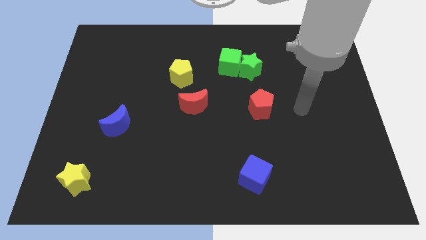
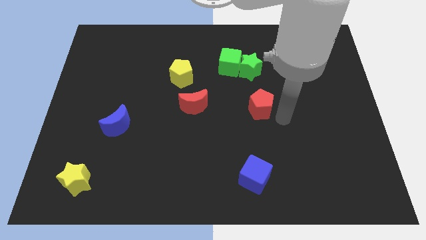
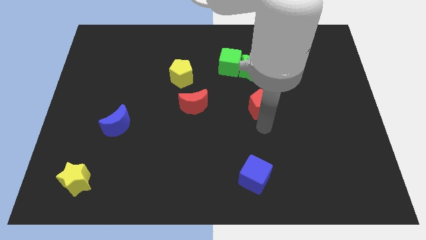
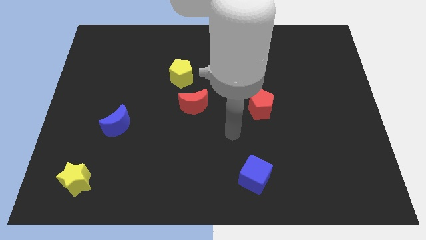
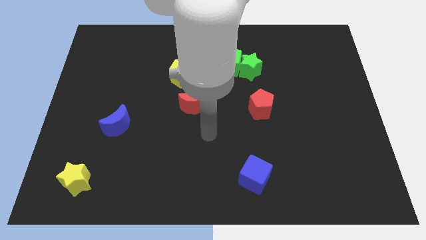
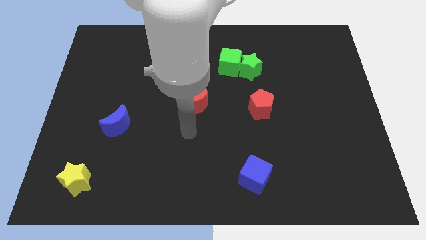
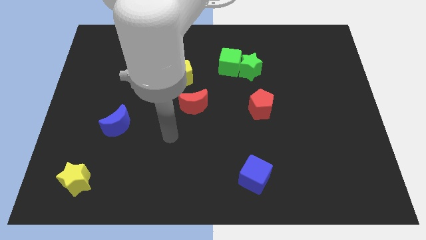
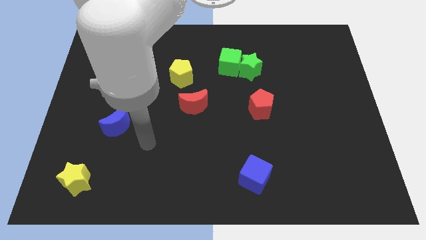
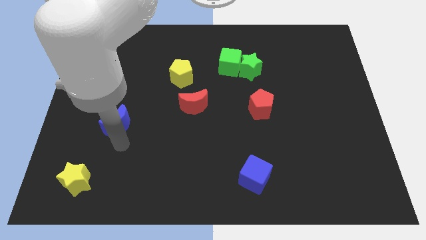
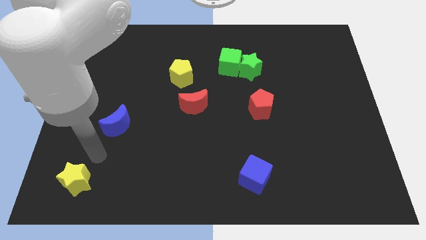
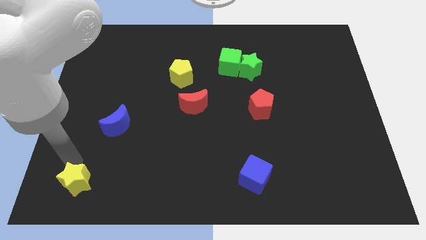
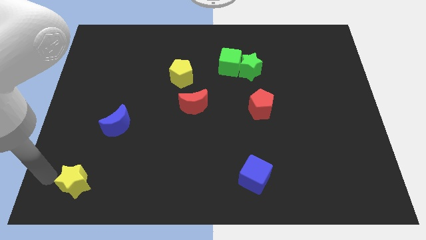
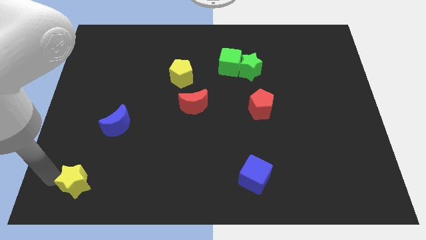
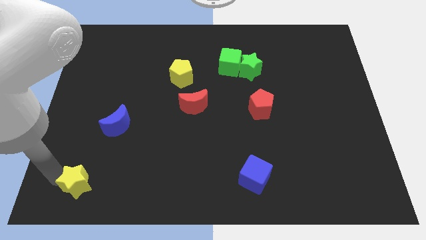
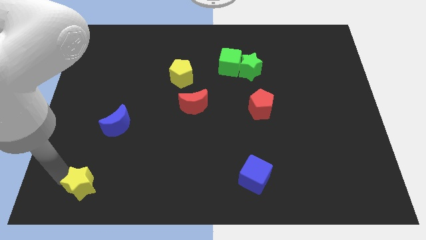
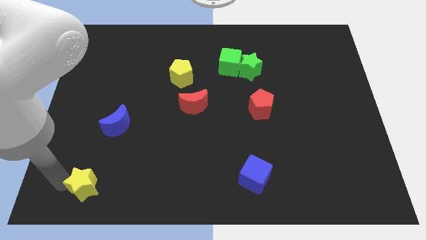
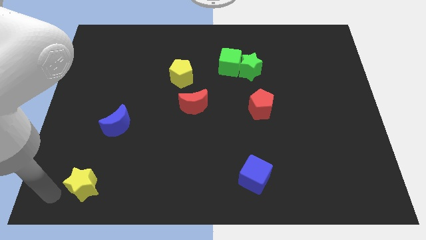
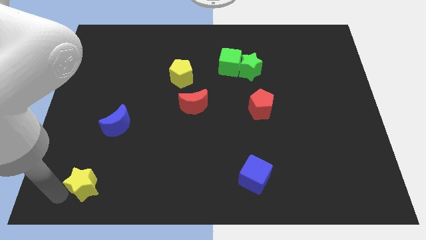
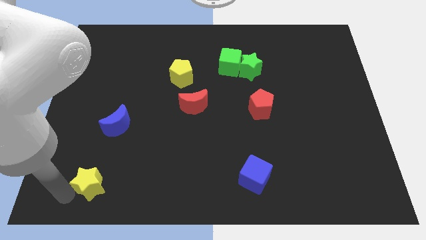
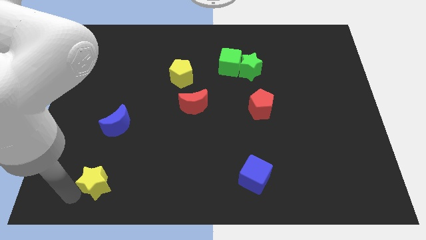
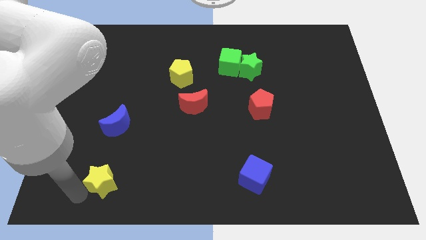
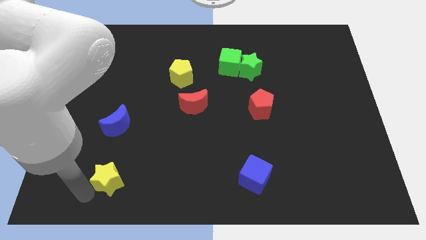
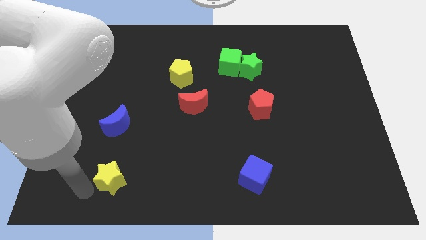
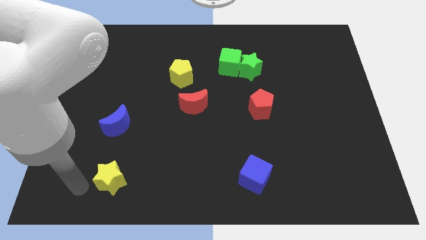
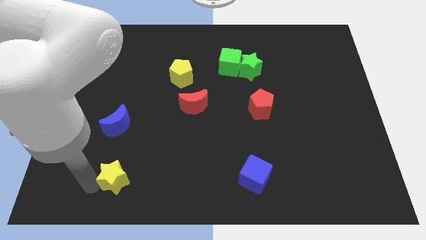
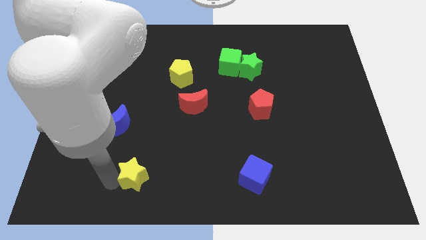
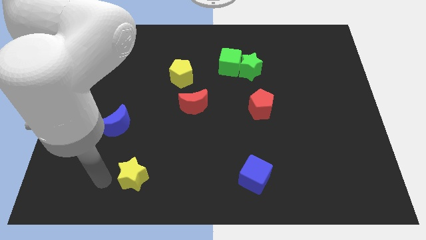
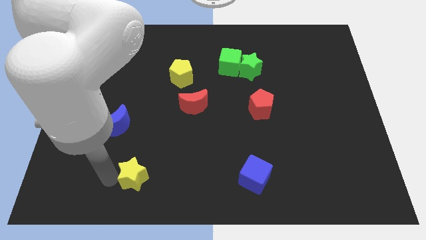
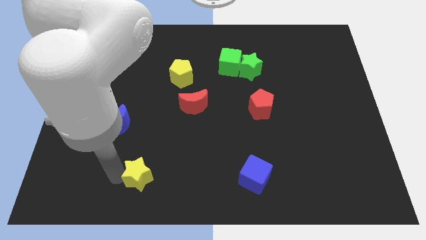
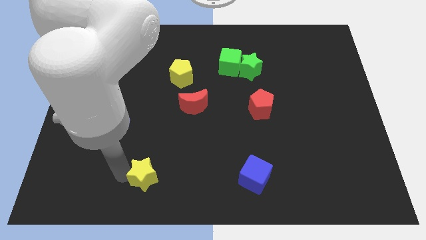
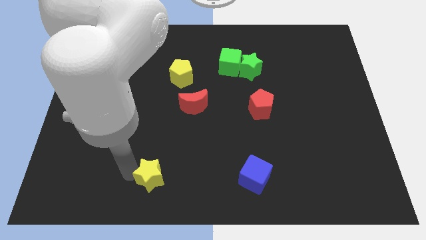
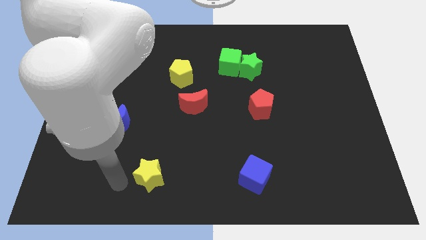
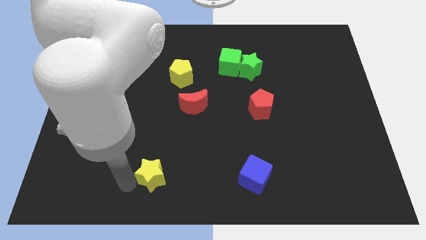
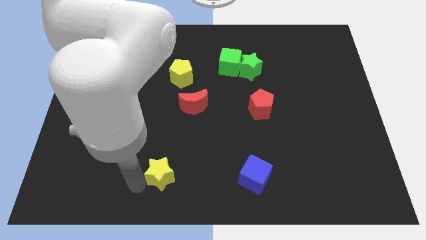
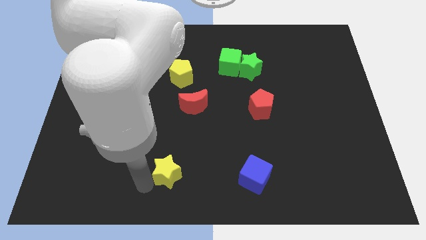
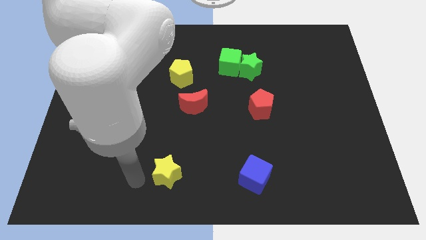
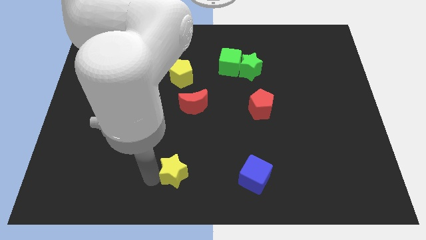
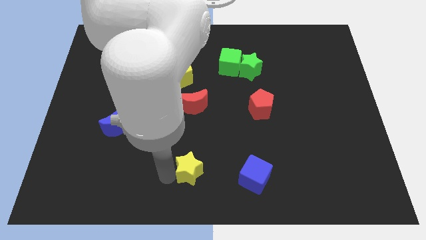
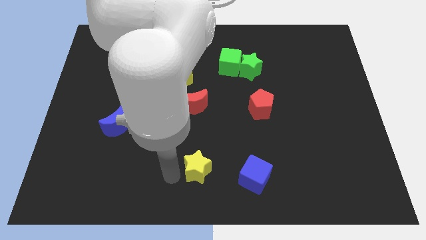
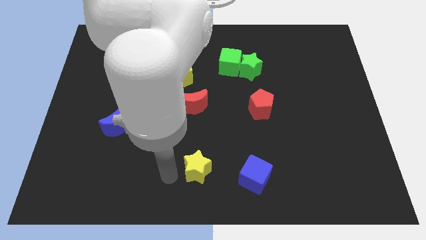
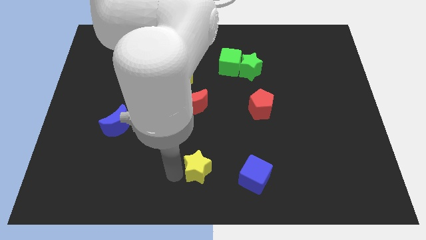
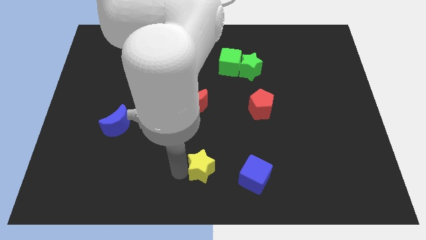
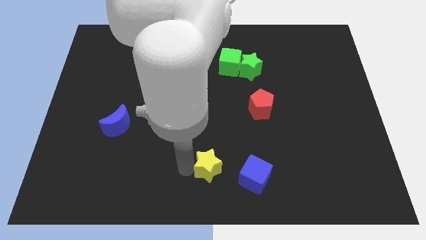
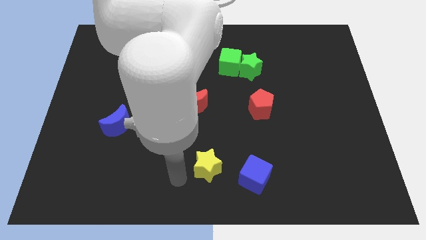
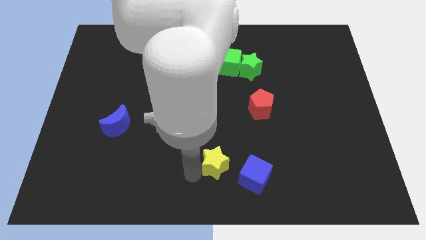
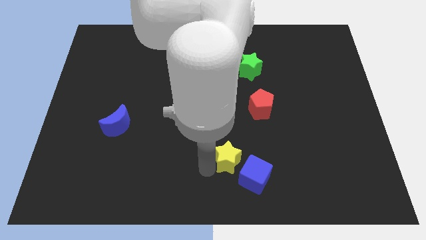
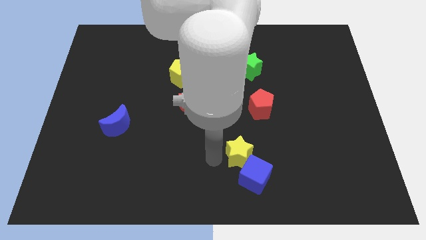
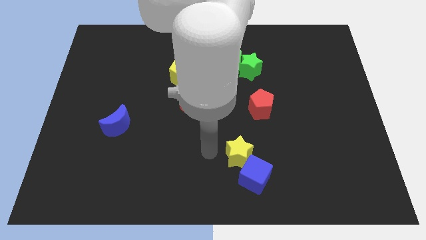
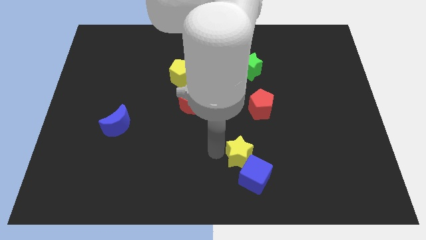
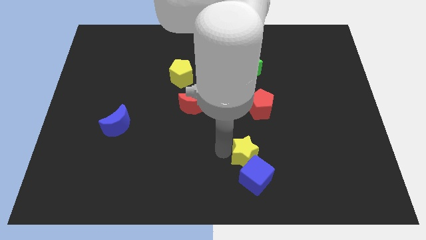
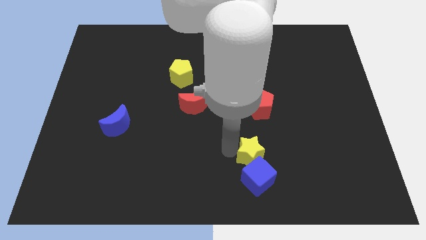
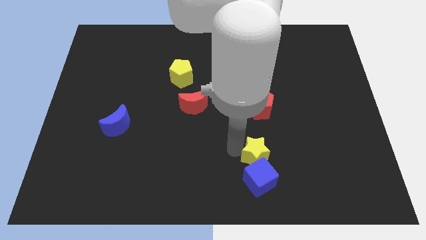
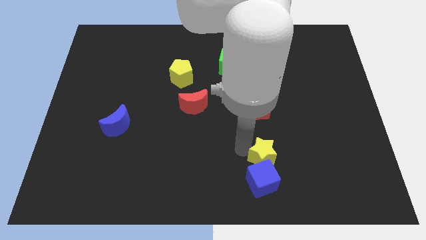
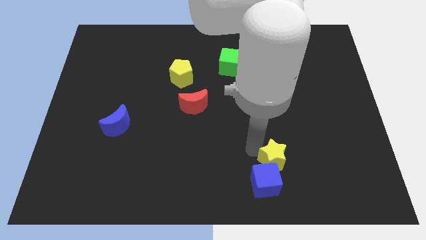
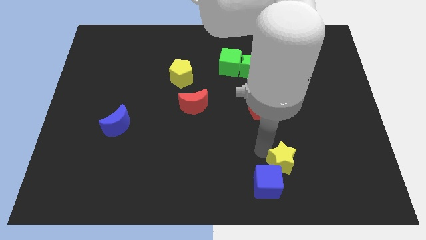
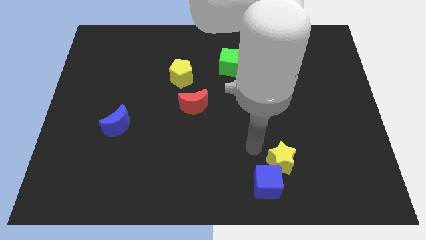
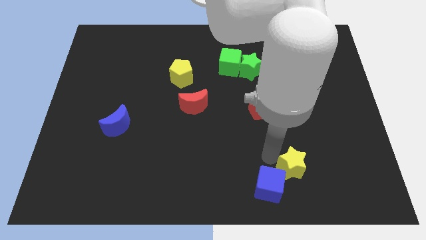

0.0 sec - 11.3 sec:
move the yellow star just right of the blue cube
